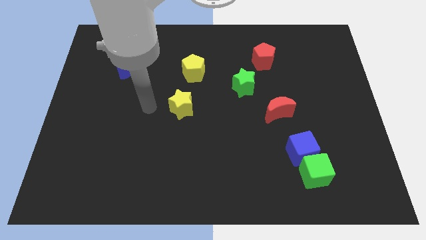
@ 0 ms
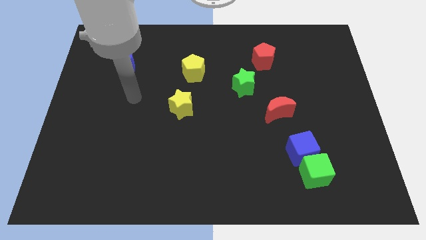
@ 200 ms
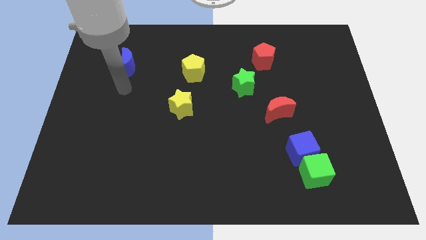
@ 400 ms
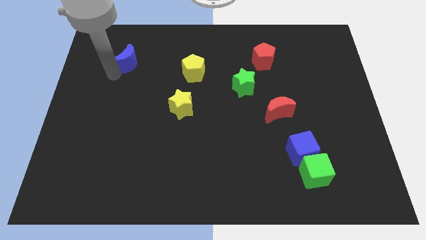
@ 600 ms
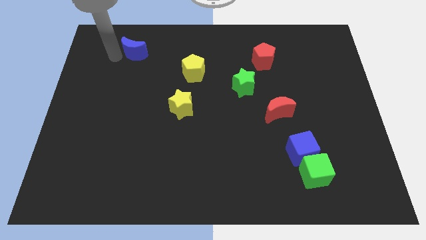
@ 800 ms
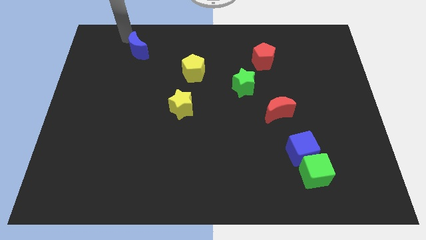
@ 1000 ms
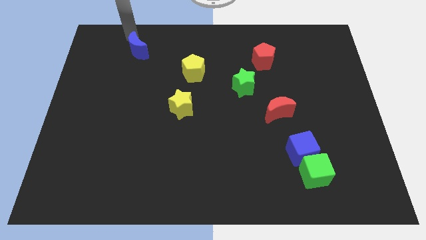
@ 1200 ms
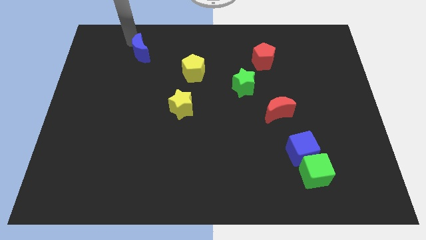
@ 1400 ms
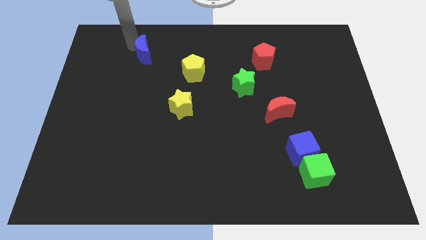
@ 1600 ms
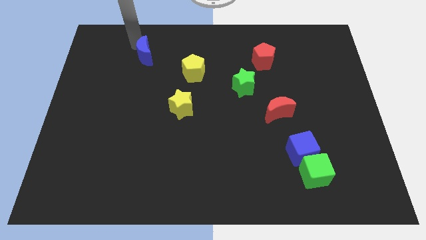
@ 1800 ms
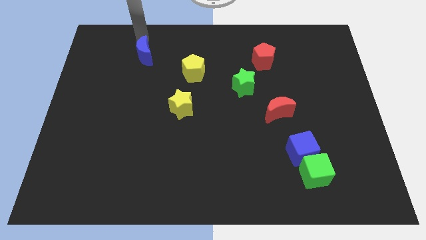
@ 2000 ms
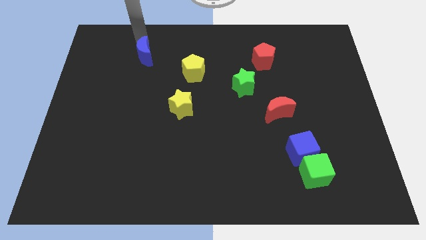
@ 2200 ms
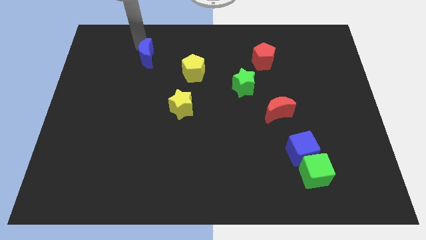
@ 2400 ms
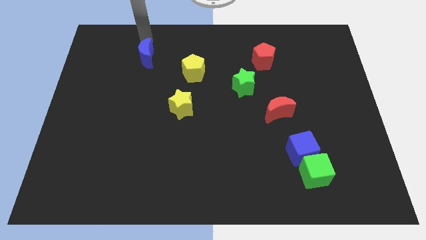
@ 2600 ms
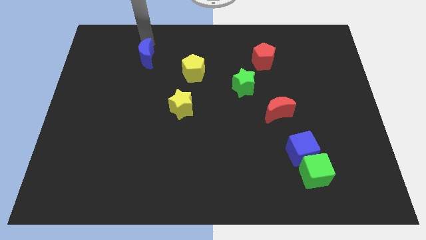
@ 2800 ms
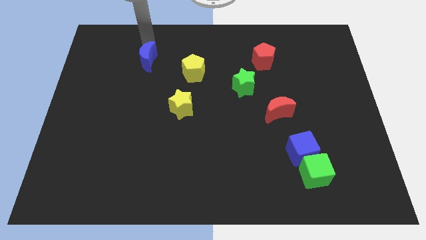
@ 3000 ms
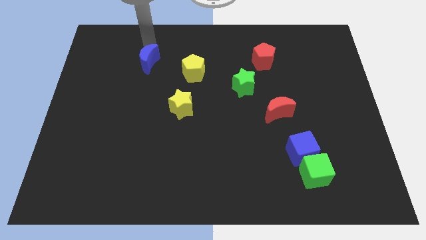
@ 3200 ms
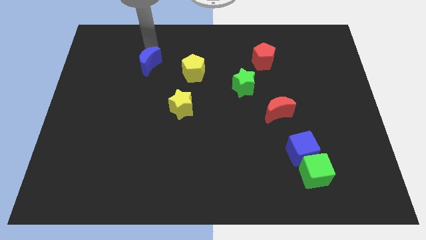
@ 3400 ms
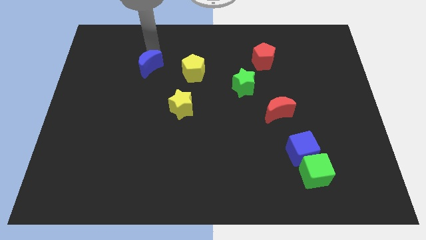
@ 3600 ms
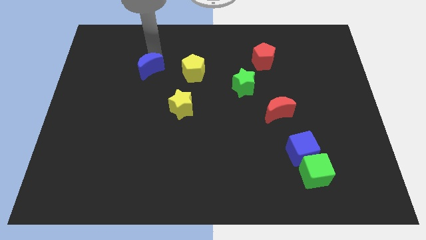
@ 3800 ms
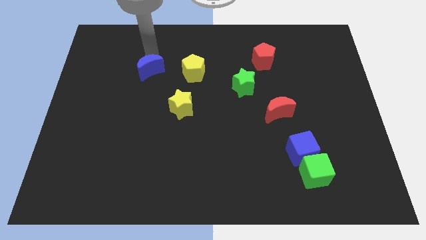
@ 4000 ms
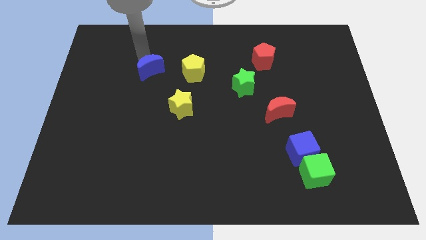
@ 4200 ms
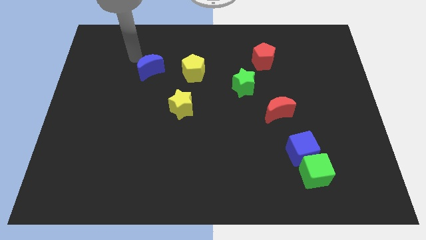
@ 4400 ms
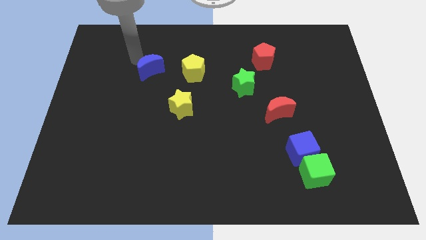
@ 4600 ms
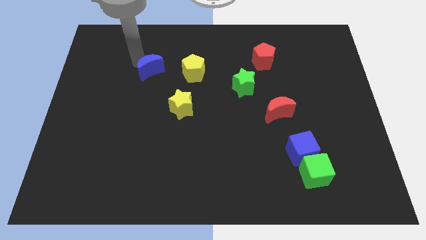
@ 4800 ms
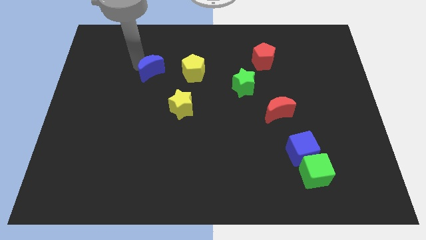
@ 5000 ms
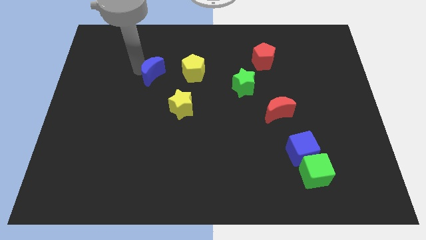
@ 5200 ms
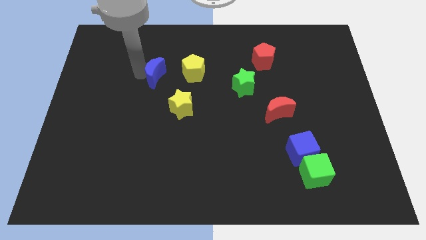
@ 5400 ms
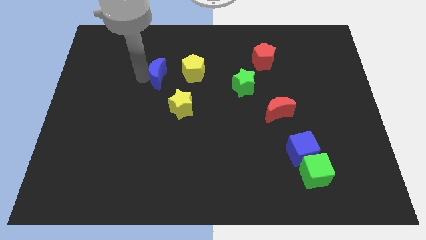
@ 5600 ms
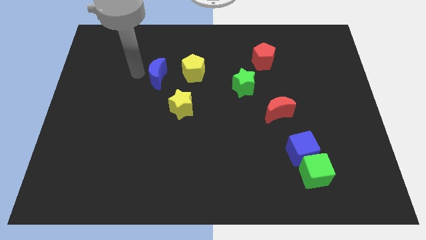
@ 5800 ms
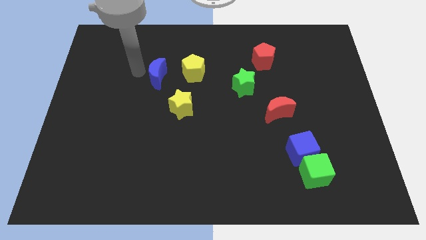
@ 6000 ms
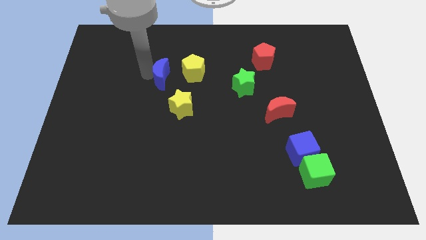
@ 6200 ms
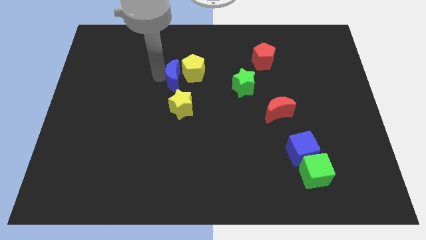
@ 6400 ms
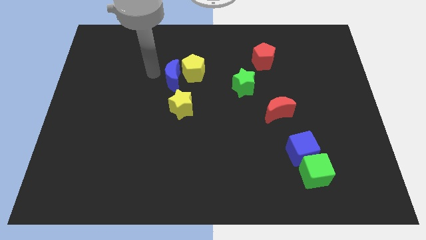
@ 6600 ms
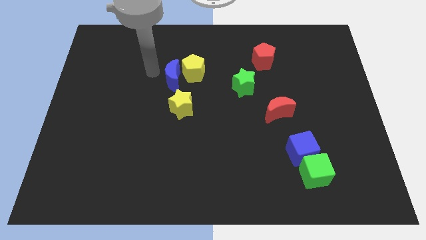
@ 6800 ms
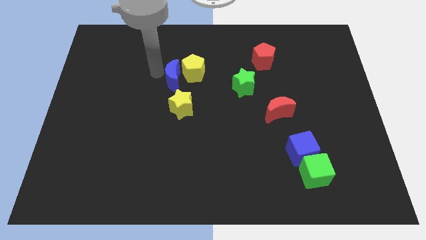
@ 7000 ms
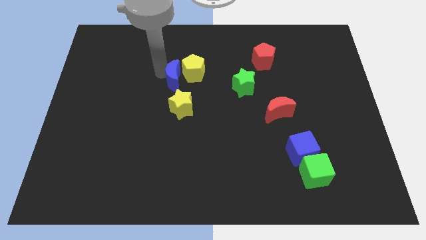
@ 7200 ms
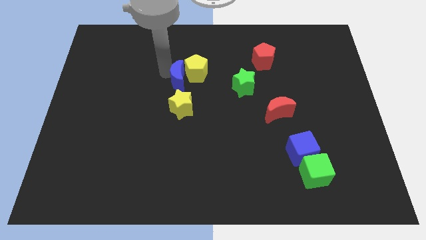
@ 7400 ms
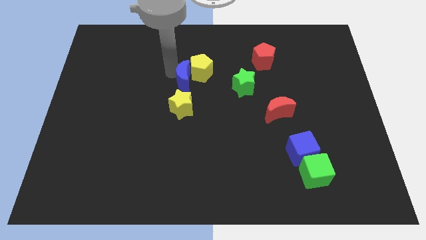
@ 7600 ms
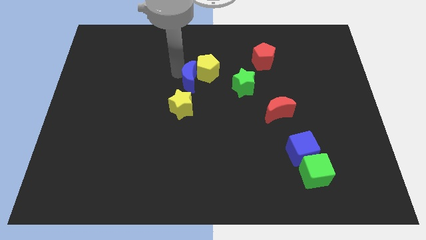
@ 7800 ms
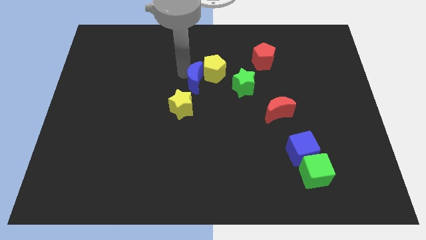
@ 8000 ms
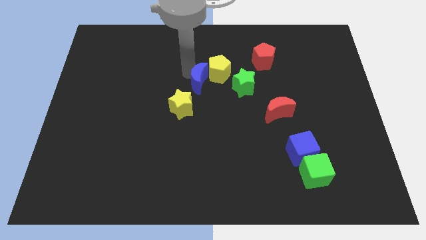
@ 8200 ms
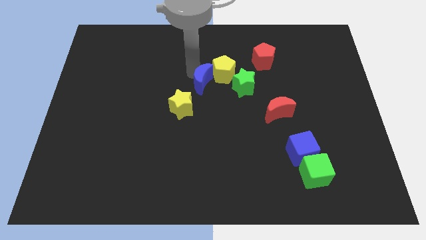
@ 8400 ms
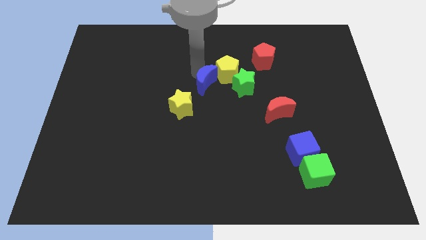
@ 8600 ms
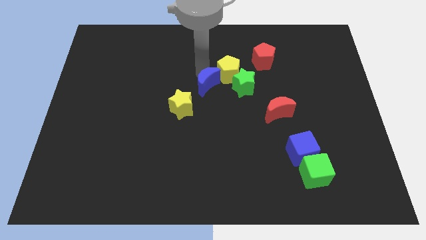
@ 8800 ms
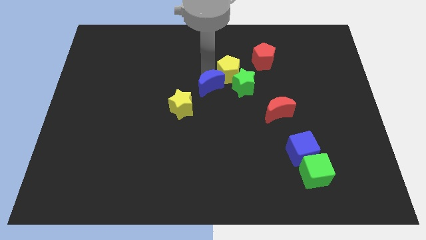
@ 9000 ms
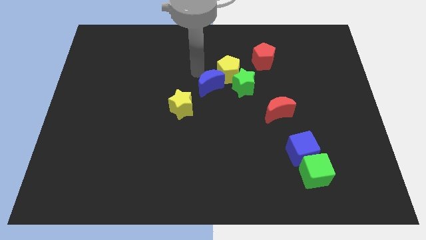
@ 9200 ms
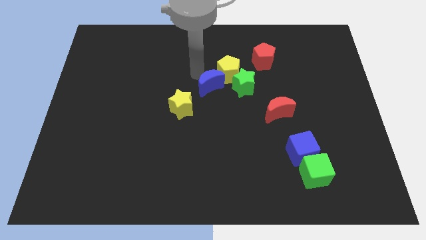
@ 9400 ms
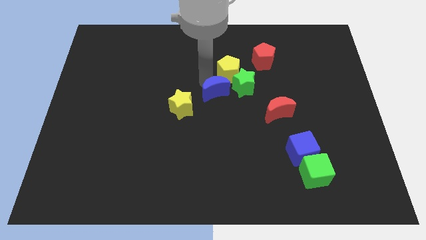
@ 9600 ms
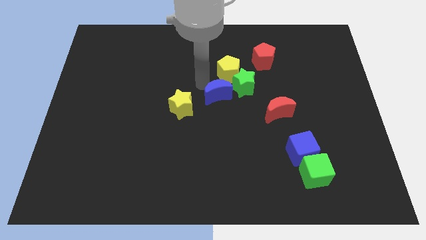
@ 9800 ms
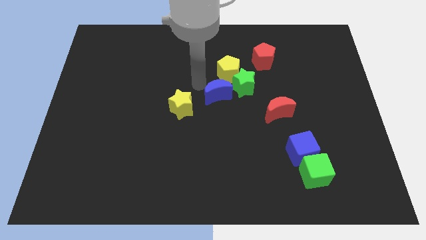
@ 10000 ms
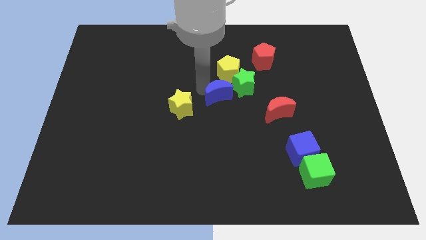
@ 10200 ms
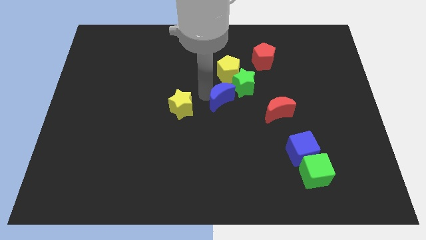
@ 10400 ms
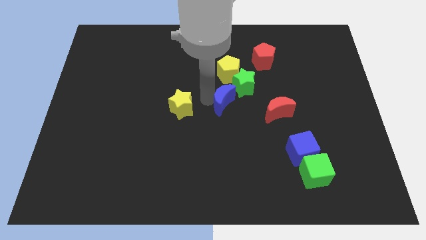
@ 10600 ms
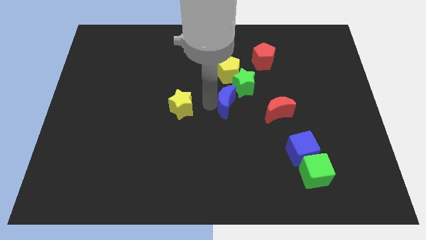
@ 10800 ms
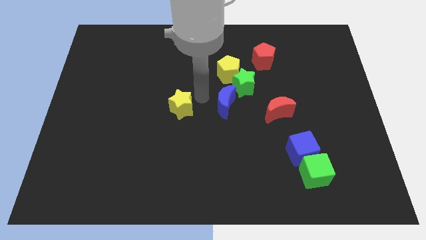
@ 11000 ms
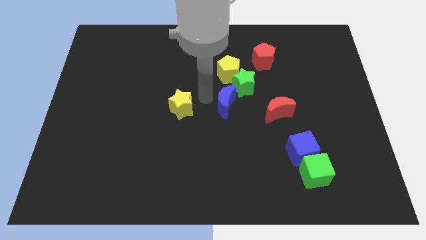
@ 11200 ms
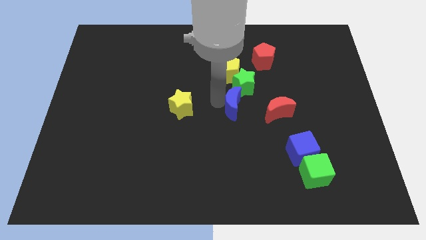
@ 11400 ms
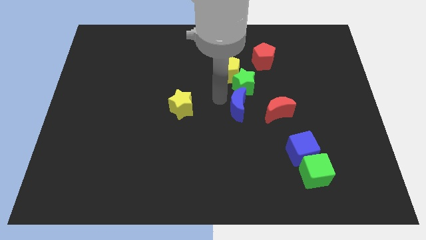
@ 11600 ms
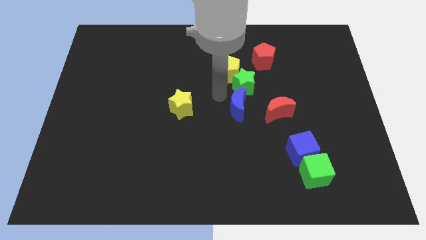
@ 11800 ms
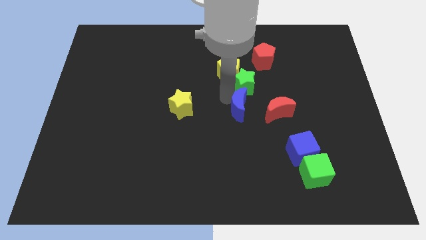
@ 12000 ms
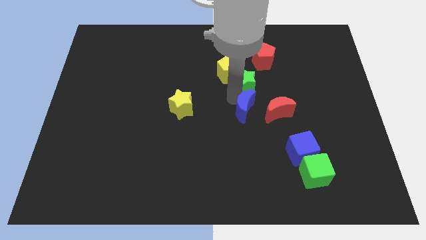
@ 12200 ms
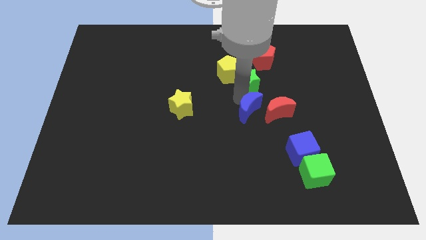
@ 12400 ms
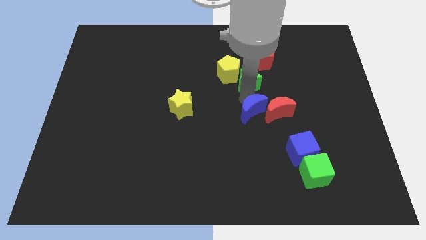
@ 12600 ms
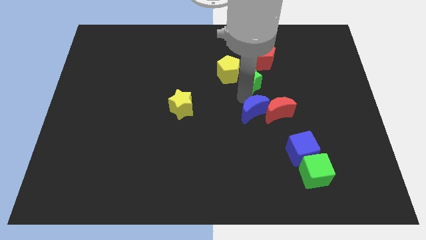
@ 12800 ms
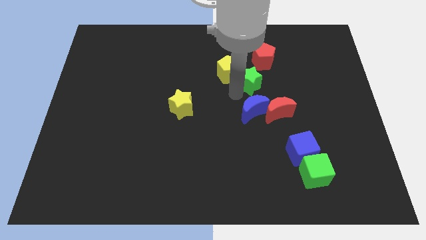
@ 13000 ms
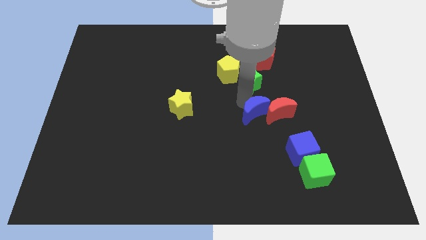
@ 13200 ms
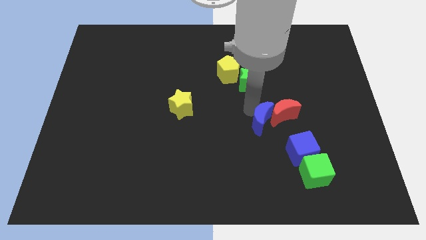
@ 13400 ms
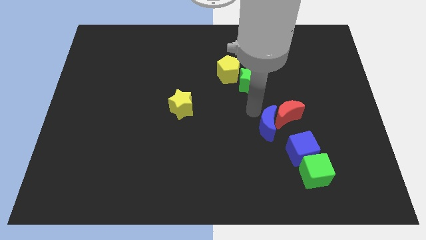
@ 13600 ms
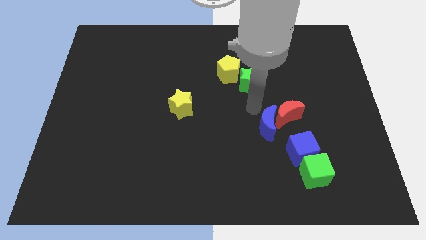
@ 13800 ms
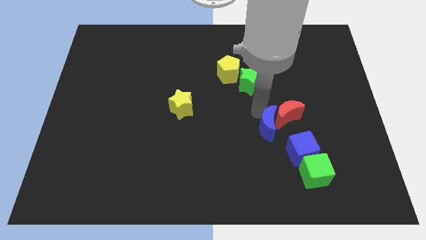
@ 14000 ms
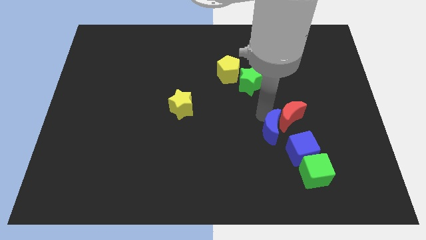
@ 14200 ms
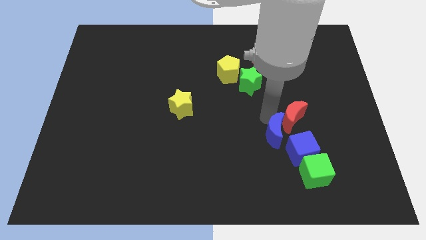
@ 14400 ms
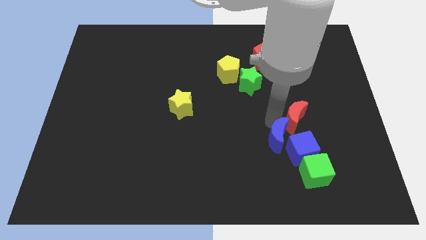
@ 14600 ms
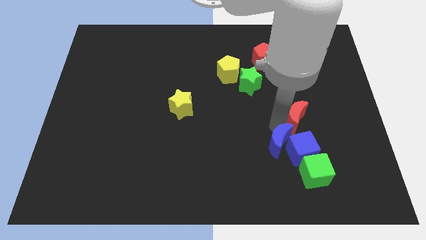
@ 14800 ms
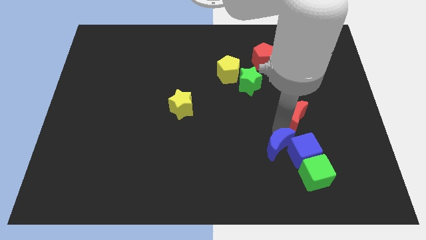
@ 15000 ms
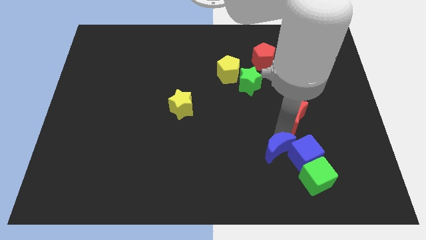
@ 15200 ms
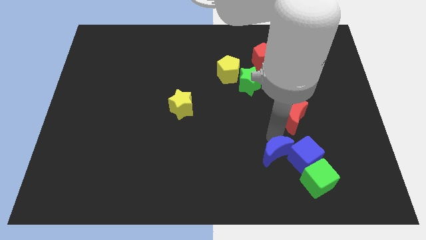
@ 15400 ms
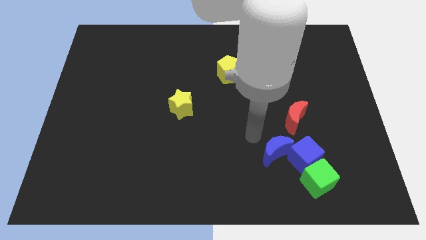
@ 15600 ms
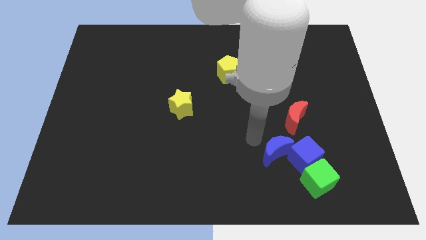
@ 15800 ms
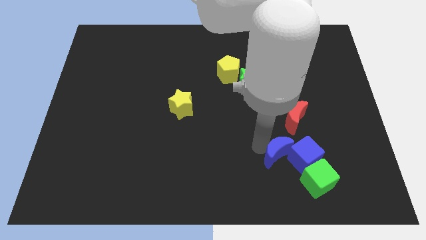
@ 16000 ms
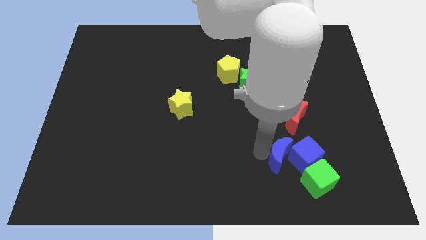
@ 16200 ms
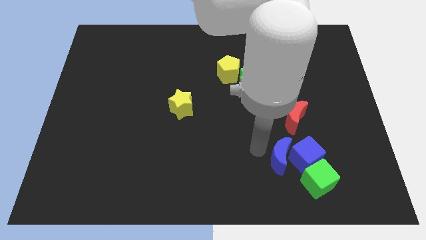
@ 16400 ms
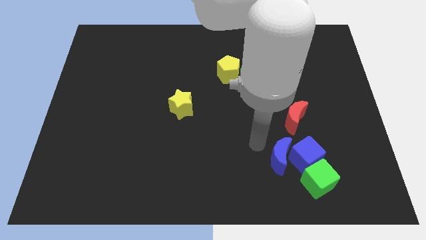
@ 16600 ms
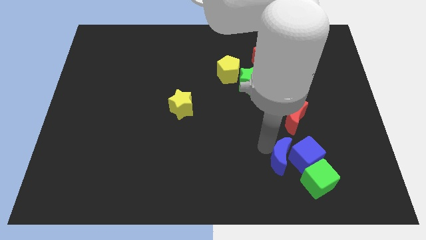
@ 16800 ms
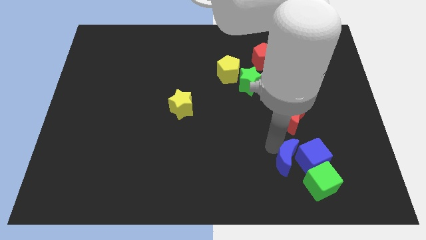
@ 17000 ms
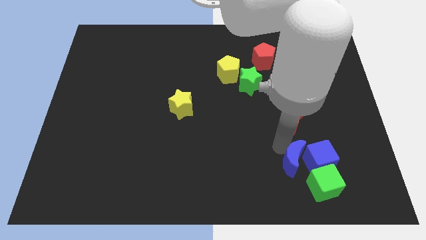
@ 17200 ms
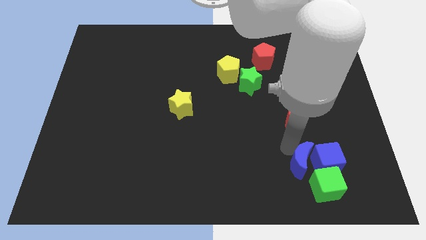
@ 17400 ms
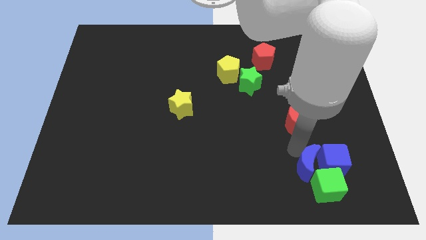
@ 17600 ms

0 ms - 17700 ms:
put the blue moon next to the green cube
